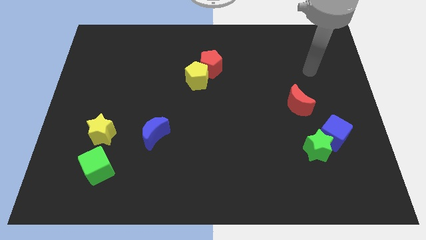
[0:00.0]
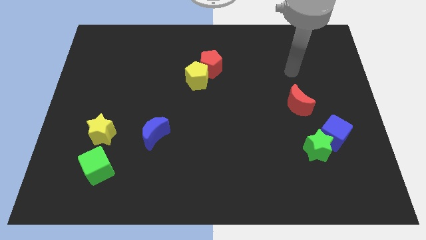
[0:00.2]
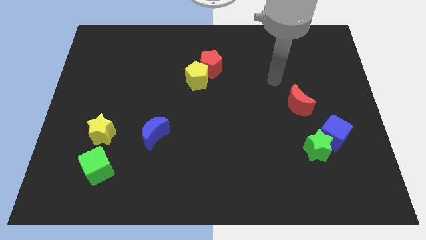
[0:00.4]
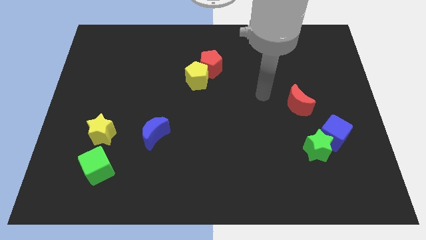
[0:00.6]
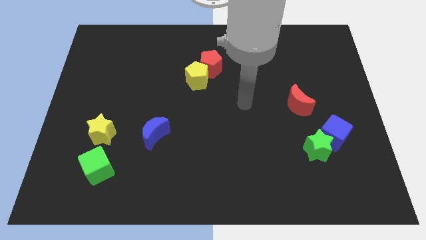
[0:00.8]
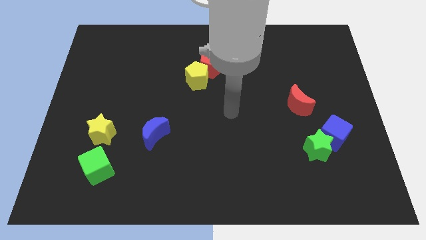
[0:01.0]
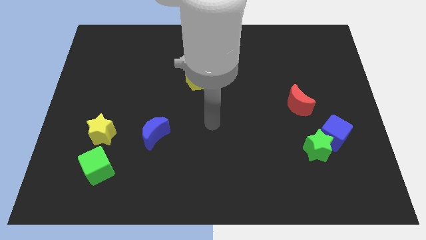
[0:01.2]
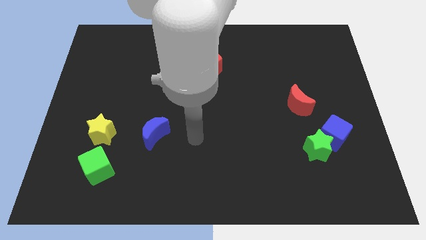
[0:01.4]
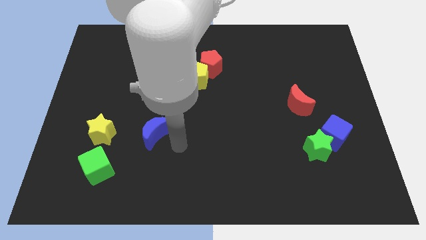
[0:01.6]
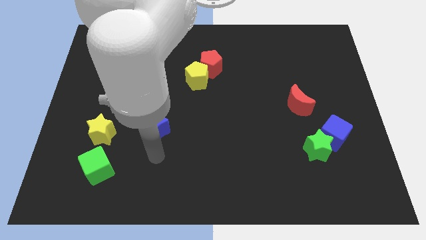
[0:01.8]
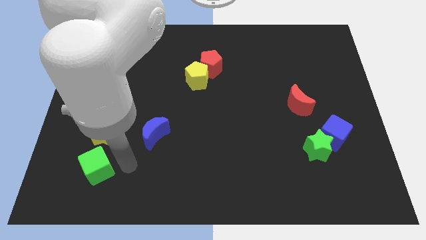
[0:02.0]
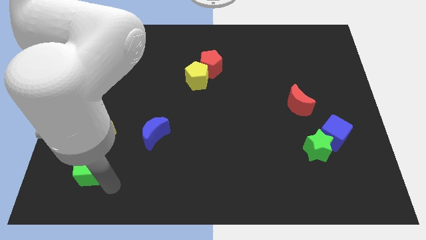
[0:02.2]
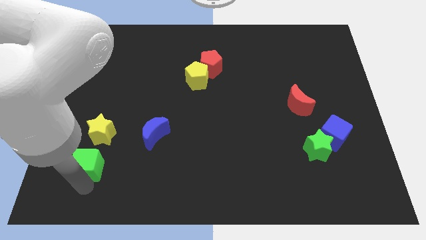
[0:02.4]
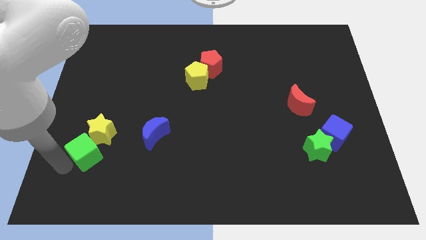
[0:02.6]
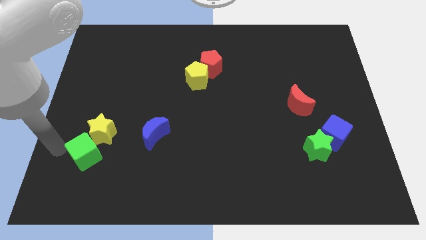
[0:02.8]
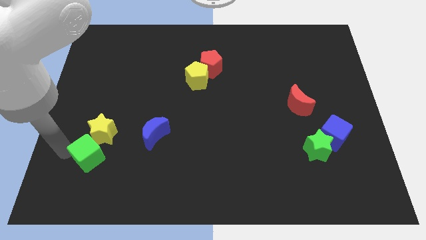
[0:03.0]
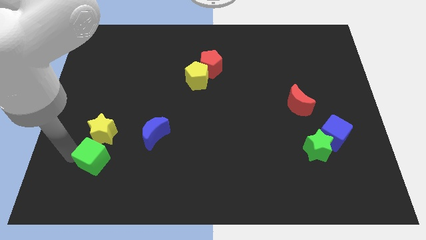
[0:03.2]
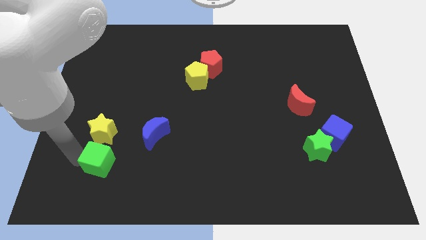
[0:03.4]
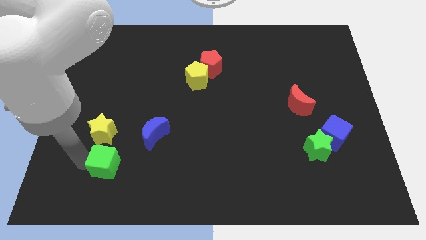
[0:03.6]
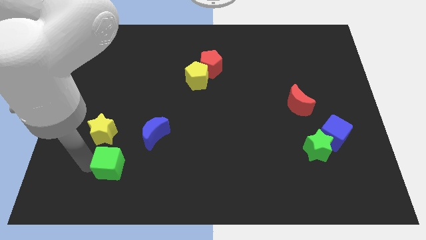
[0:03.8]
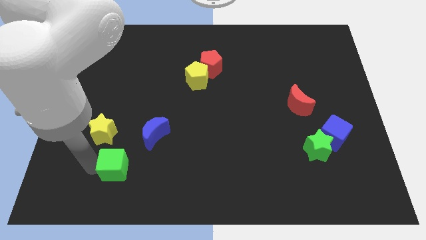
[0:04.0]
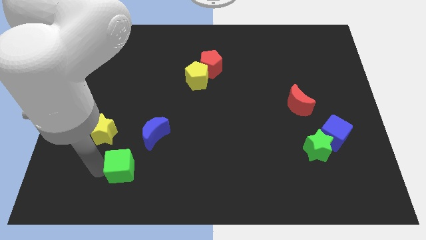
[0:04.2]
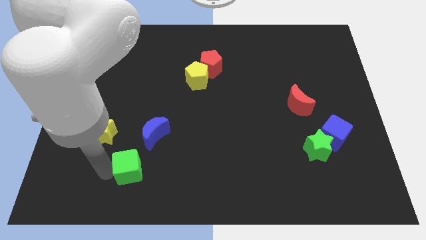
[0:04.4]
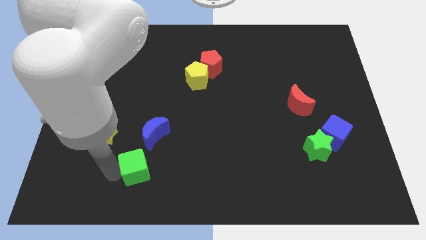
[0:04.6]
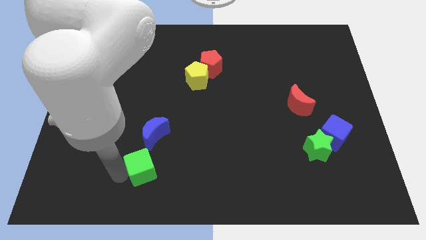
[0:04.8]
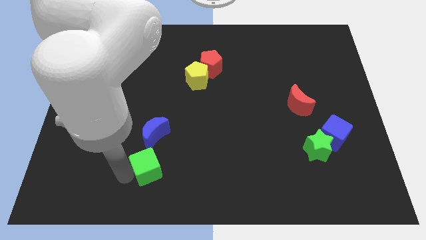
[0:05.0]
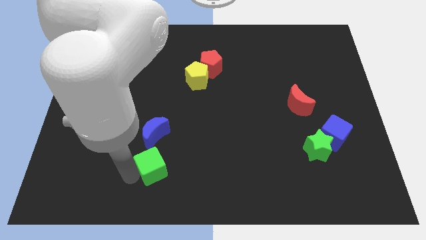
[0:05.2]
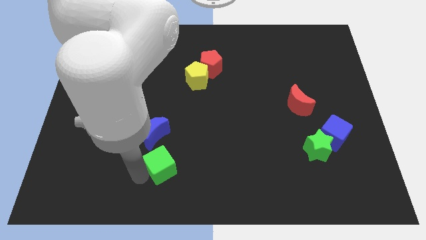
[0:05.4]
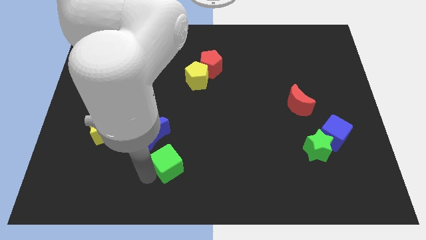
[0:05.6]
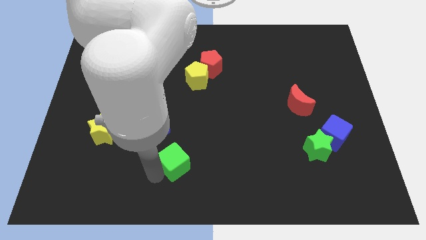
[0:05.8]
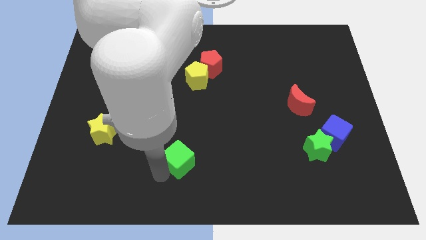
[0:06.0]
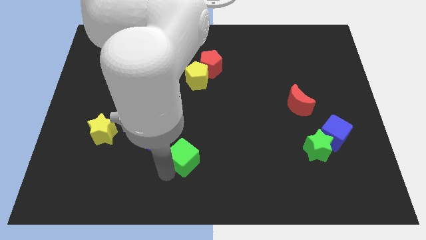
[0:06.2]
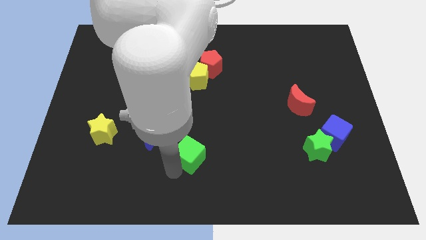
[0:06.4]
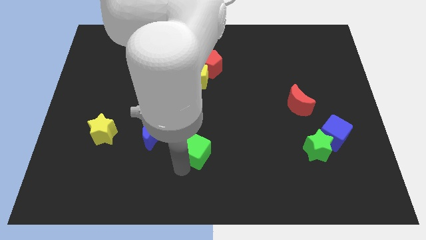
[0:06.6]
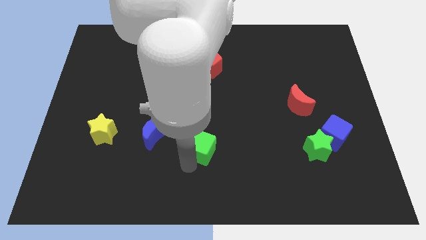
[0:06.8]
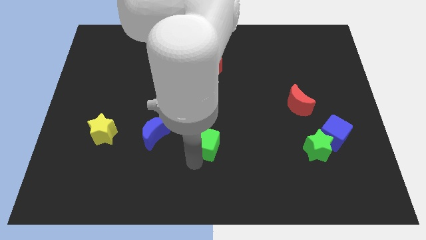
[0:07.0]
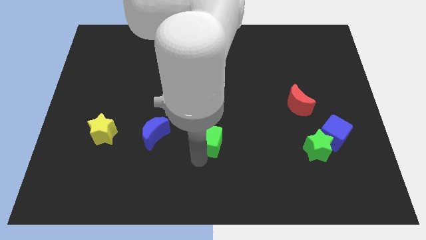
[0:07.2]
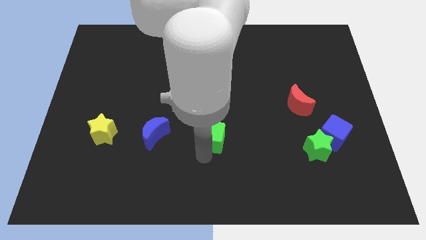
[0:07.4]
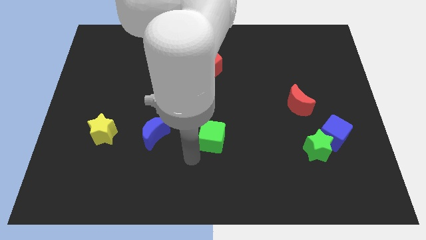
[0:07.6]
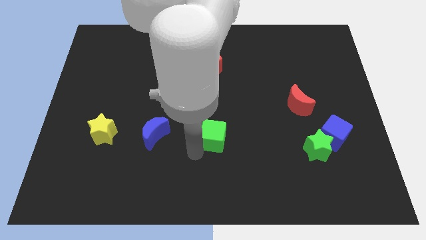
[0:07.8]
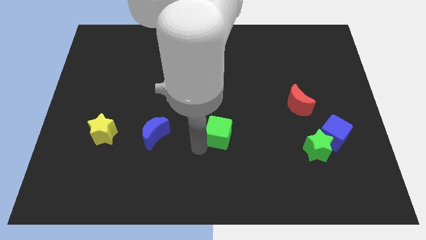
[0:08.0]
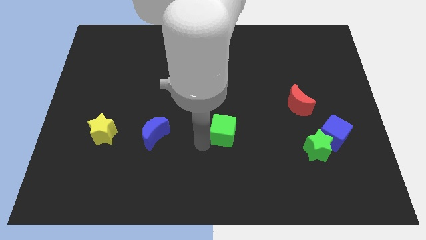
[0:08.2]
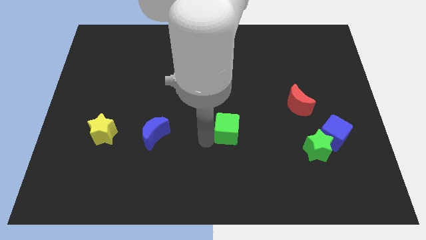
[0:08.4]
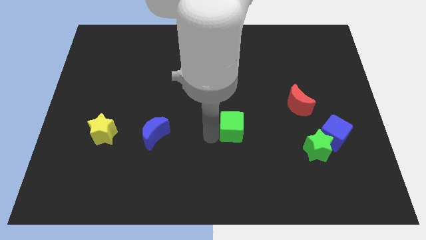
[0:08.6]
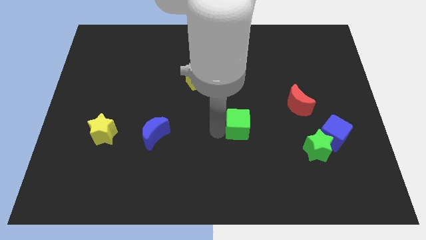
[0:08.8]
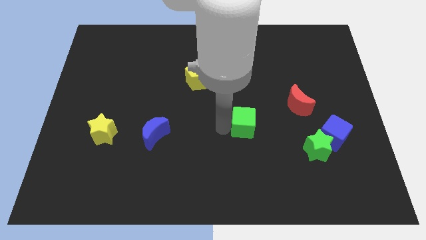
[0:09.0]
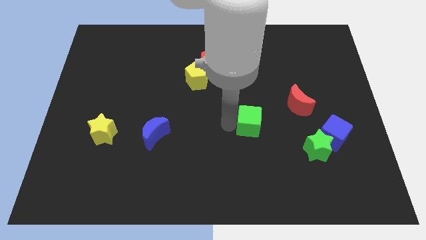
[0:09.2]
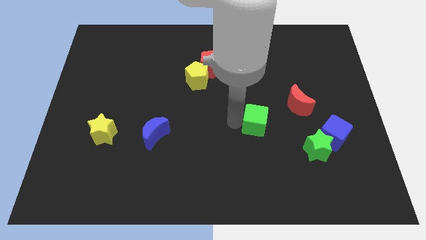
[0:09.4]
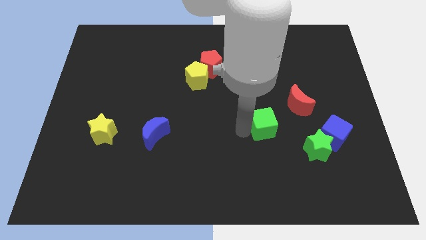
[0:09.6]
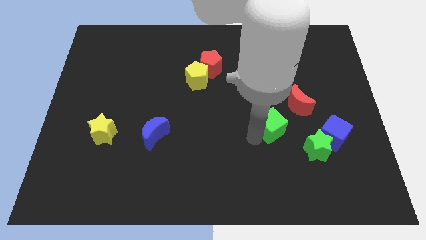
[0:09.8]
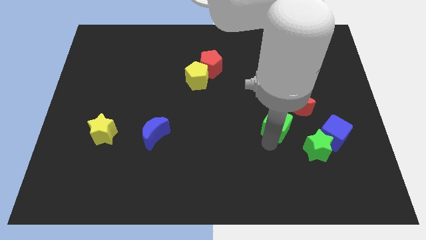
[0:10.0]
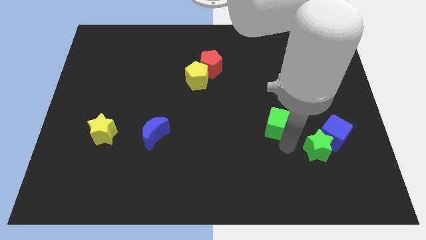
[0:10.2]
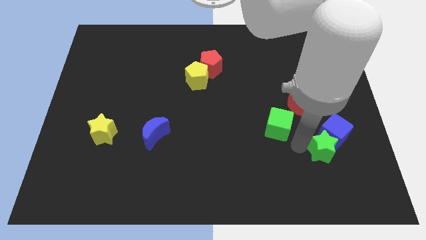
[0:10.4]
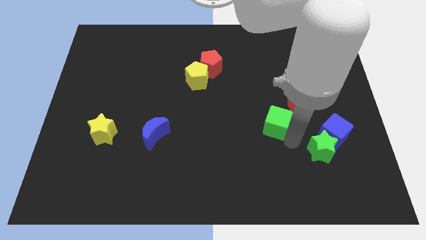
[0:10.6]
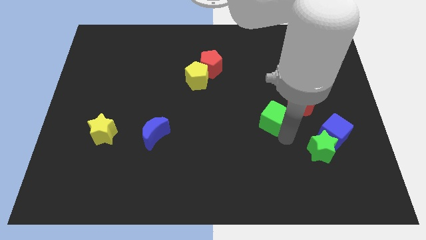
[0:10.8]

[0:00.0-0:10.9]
put the green cube left of the red moon

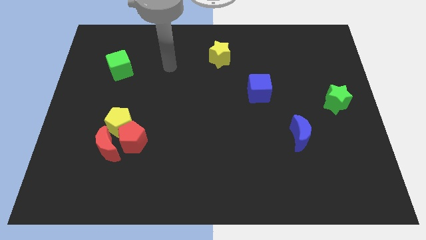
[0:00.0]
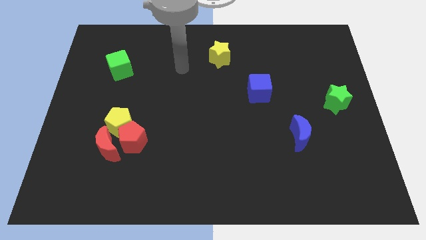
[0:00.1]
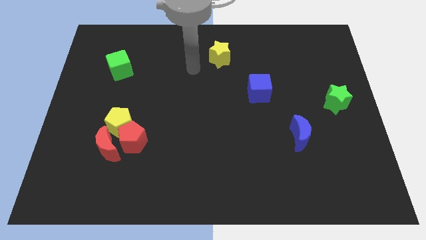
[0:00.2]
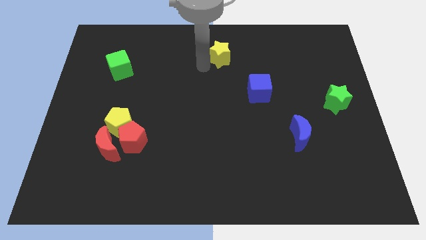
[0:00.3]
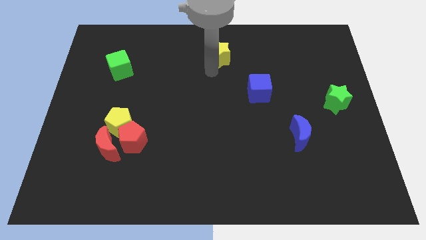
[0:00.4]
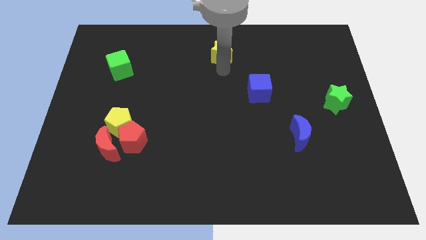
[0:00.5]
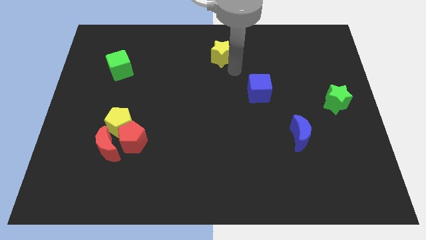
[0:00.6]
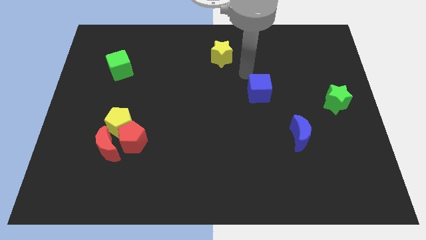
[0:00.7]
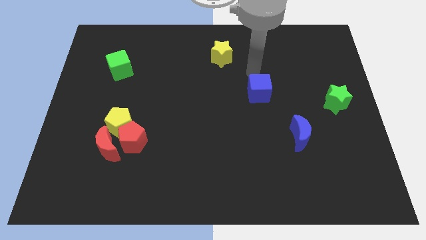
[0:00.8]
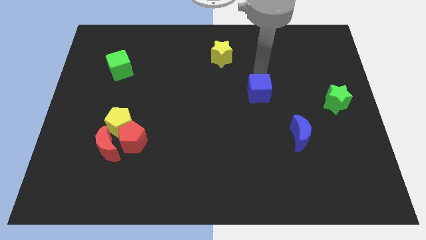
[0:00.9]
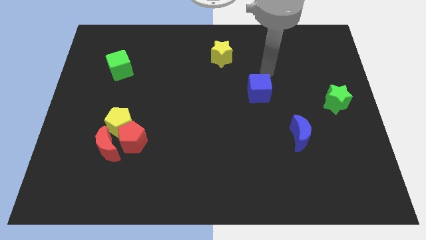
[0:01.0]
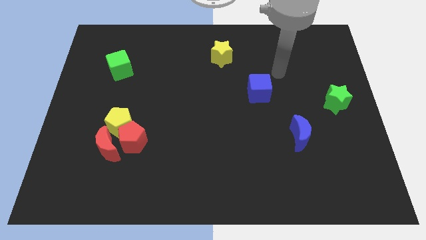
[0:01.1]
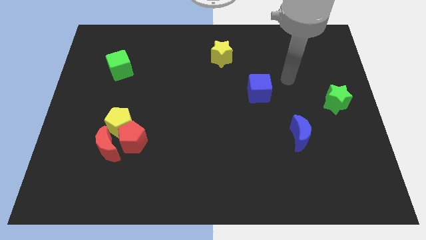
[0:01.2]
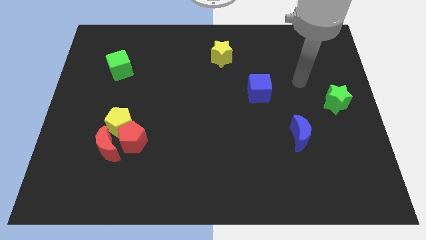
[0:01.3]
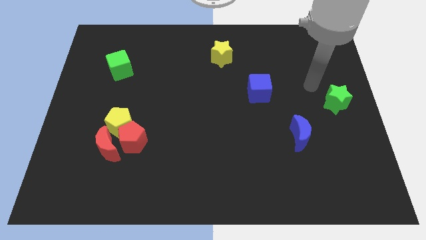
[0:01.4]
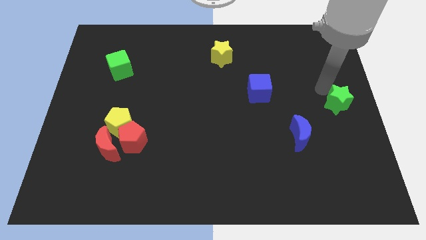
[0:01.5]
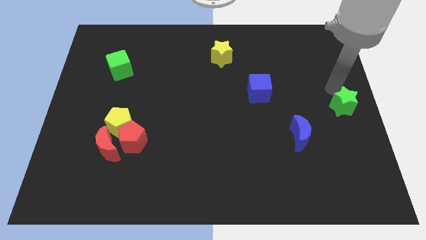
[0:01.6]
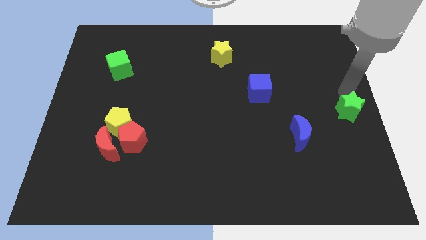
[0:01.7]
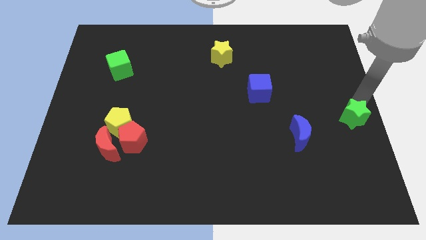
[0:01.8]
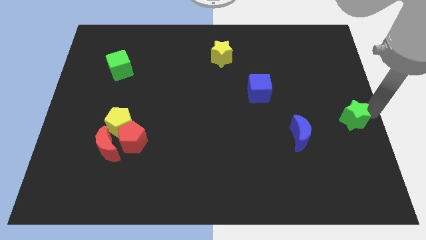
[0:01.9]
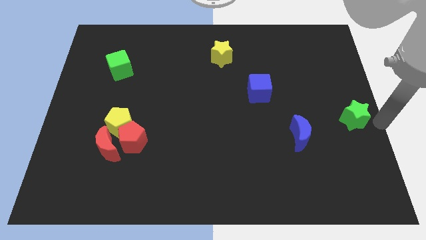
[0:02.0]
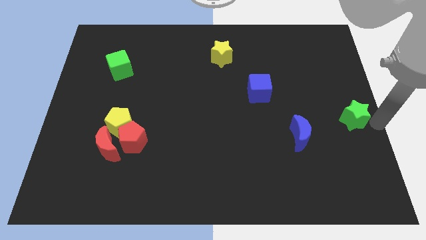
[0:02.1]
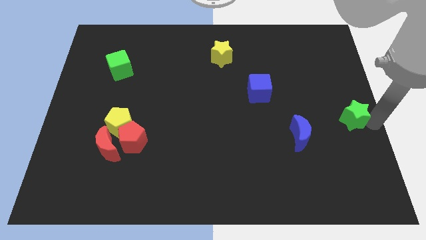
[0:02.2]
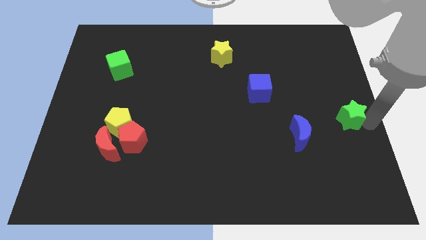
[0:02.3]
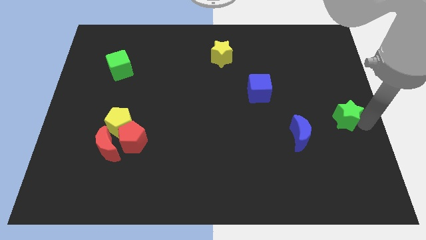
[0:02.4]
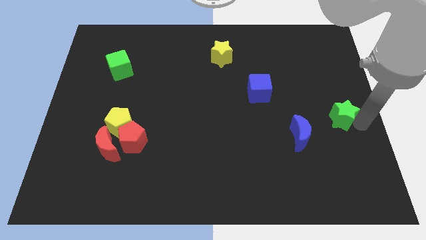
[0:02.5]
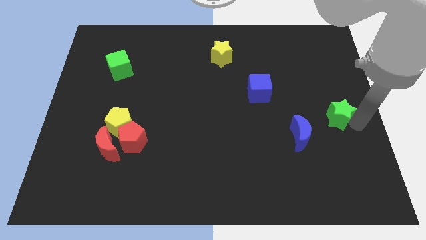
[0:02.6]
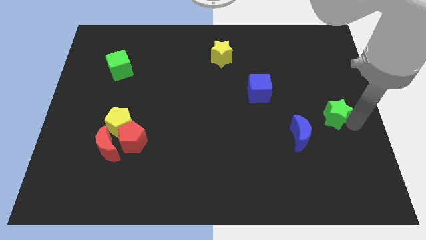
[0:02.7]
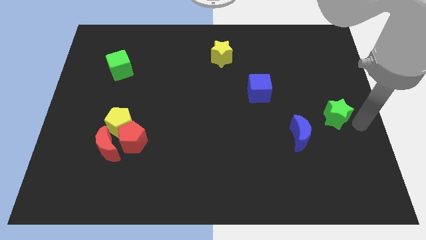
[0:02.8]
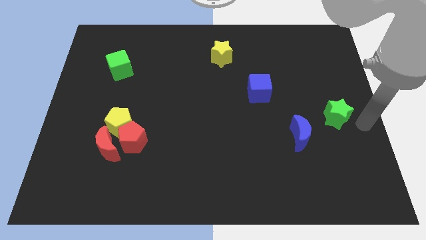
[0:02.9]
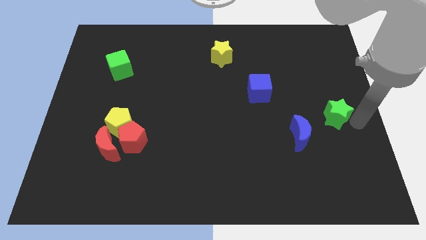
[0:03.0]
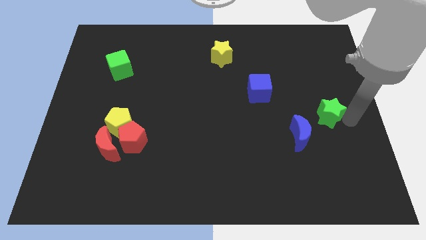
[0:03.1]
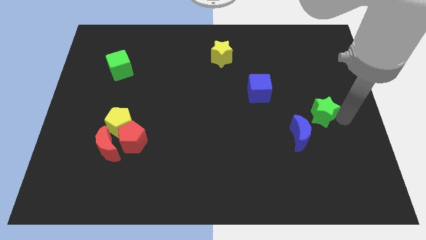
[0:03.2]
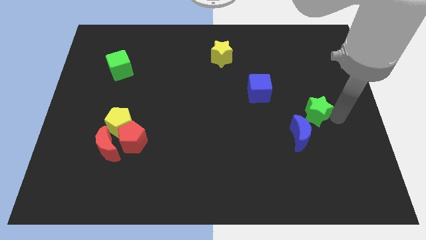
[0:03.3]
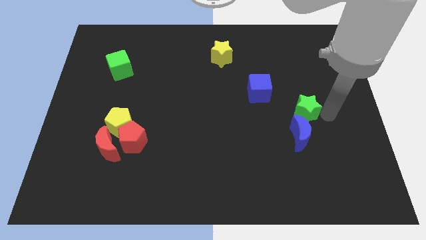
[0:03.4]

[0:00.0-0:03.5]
move the green star to the bottom right side of the blue cube
